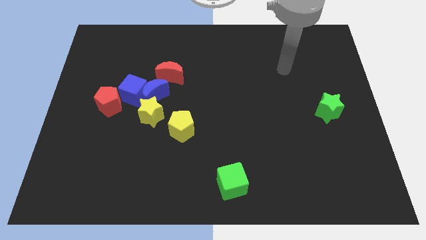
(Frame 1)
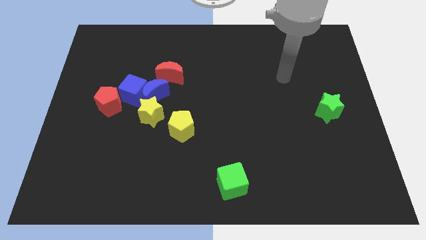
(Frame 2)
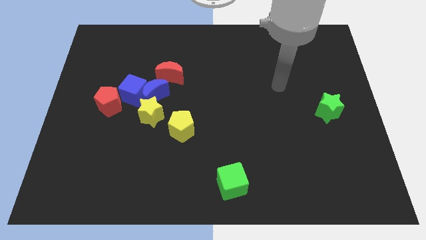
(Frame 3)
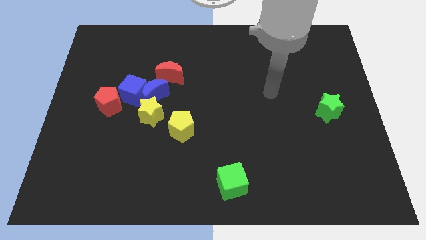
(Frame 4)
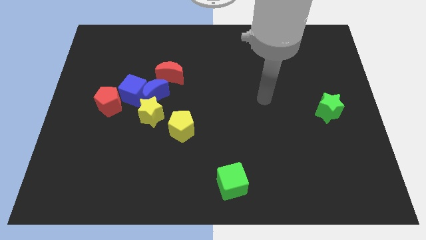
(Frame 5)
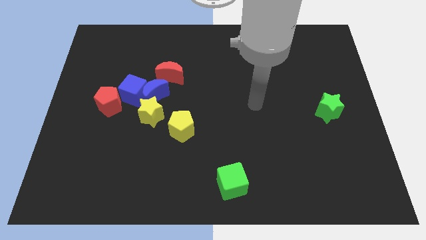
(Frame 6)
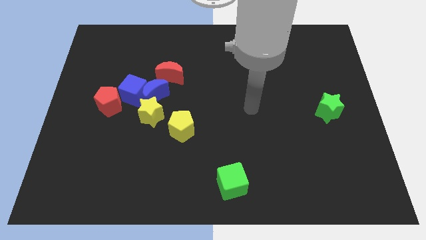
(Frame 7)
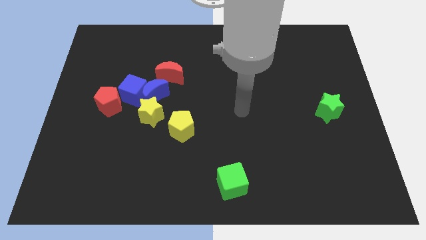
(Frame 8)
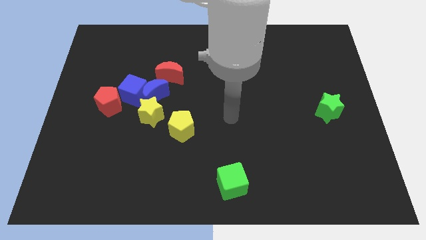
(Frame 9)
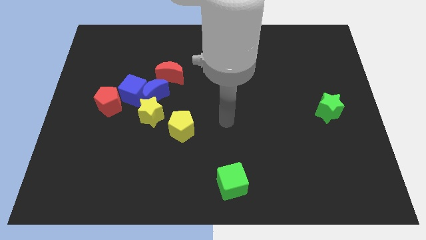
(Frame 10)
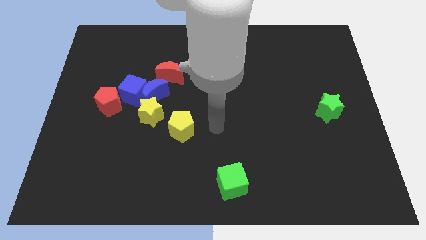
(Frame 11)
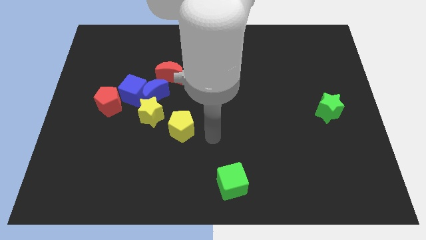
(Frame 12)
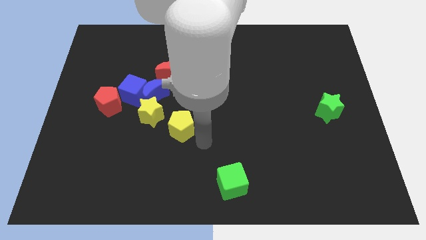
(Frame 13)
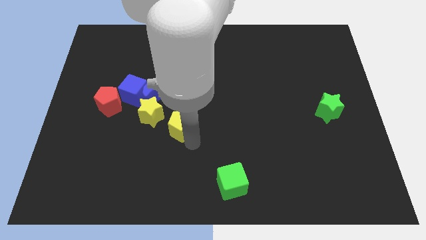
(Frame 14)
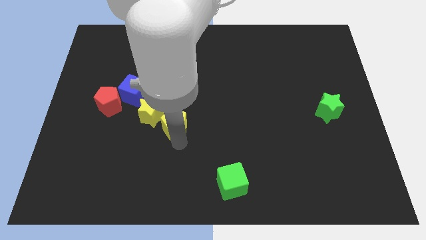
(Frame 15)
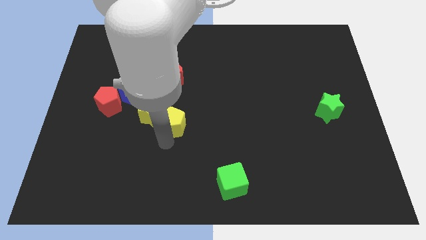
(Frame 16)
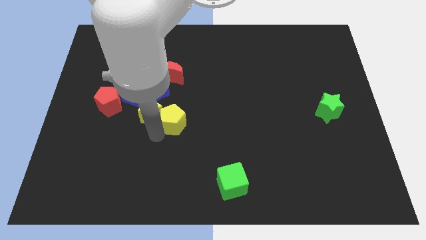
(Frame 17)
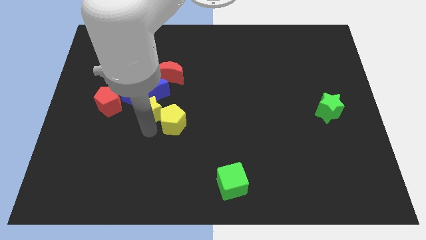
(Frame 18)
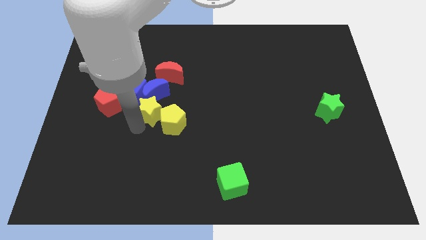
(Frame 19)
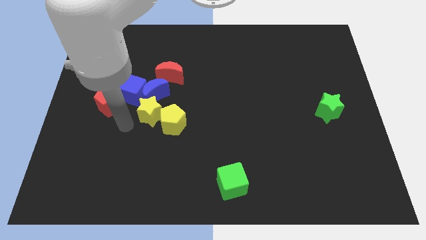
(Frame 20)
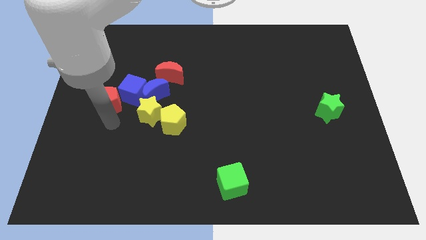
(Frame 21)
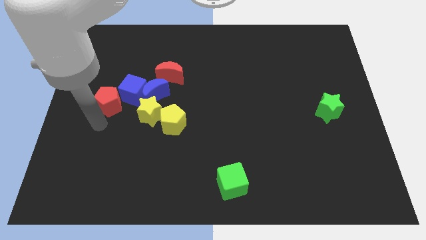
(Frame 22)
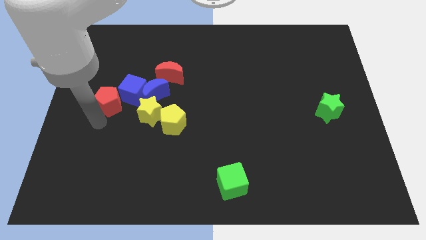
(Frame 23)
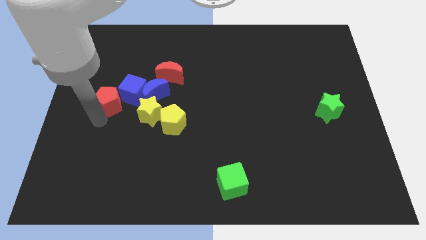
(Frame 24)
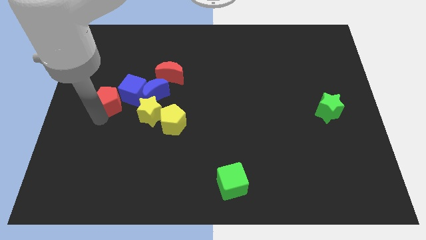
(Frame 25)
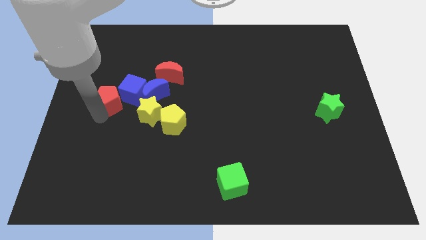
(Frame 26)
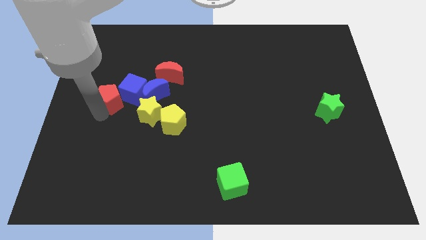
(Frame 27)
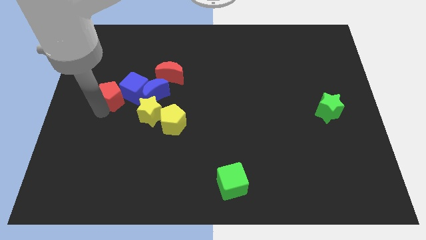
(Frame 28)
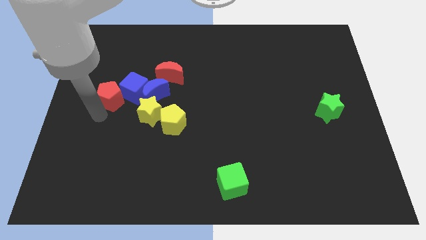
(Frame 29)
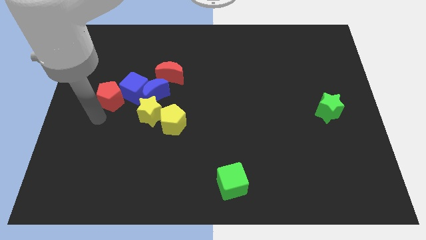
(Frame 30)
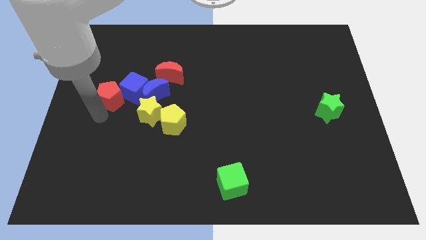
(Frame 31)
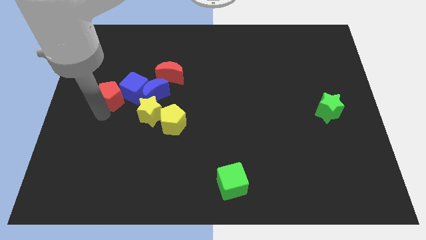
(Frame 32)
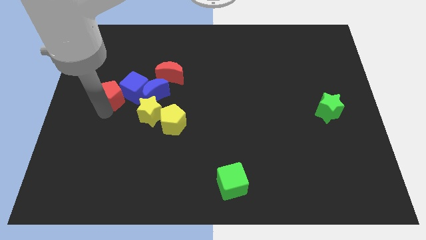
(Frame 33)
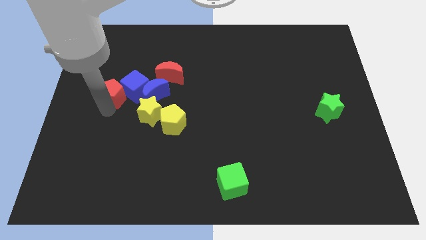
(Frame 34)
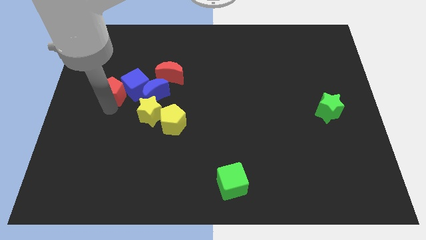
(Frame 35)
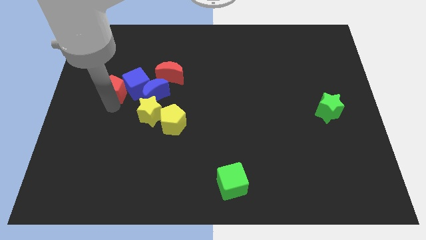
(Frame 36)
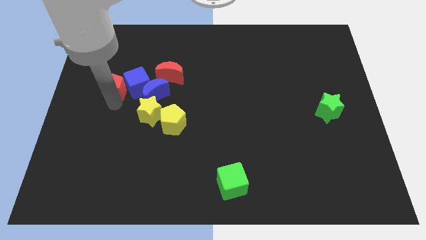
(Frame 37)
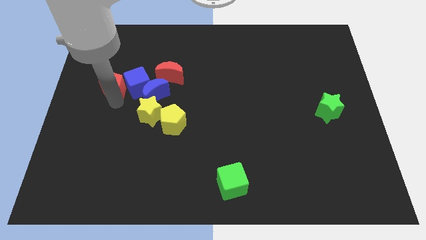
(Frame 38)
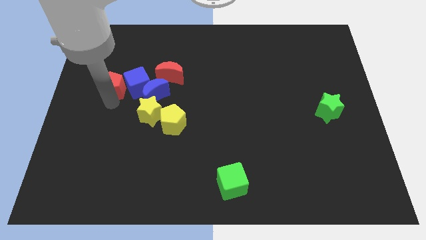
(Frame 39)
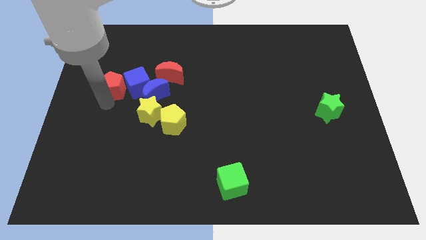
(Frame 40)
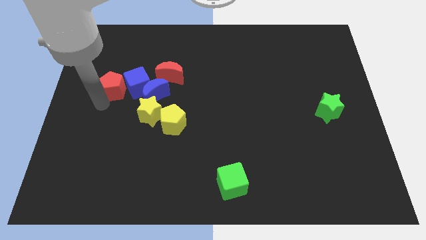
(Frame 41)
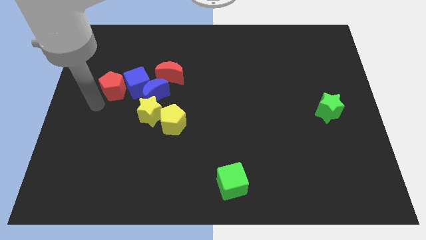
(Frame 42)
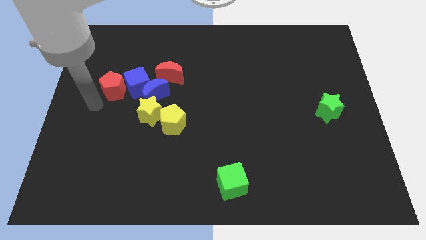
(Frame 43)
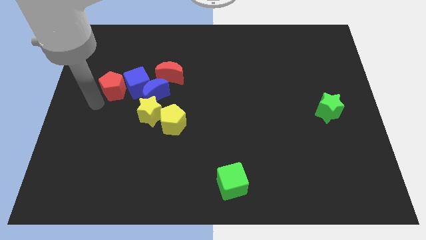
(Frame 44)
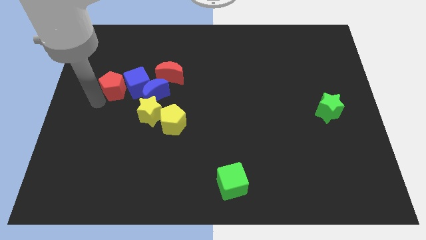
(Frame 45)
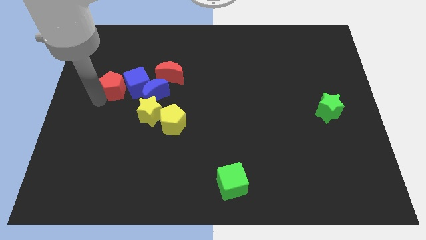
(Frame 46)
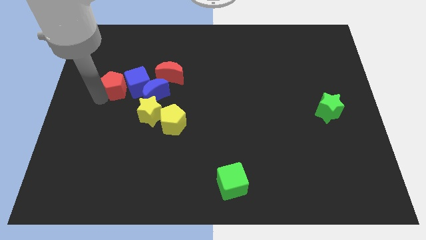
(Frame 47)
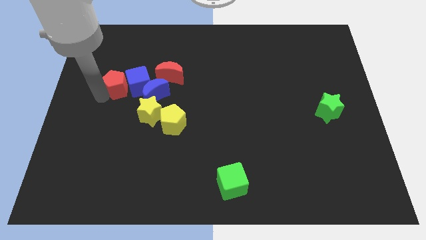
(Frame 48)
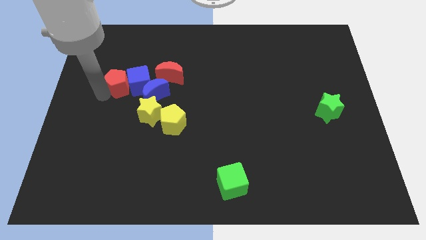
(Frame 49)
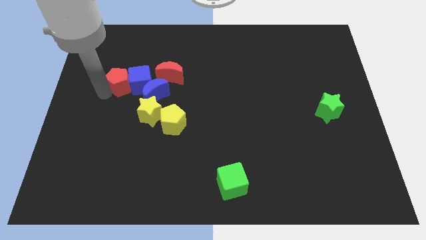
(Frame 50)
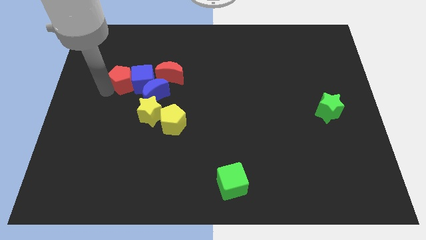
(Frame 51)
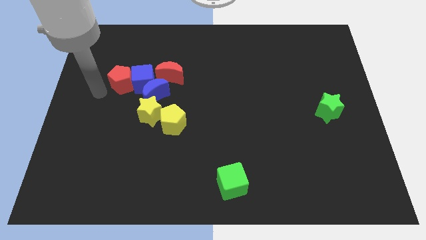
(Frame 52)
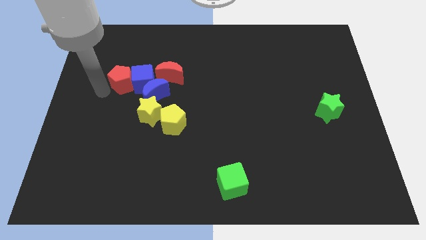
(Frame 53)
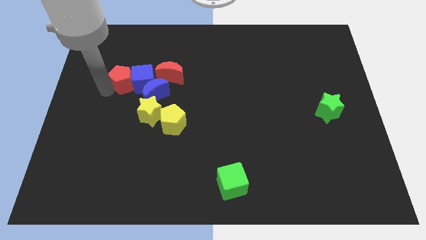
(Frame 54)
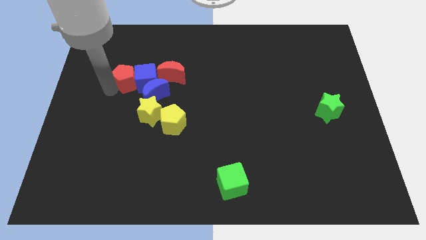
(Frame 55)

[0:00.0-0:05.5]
push the red pentagon a little bit up and then right

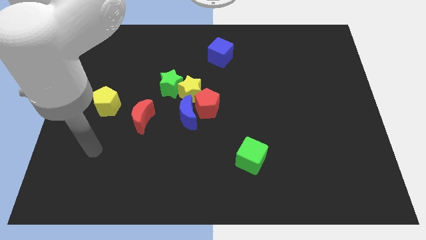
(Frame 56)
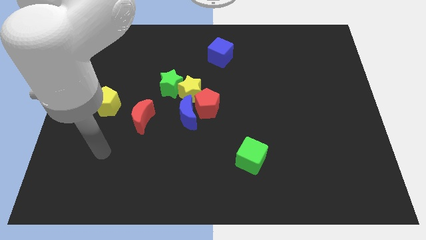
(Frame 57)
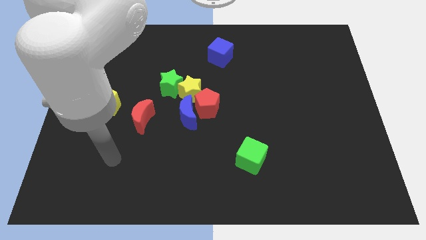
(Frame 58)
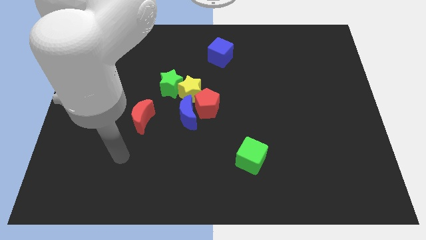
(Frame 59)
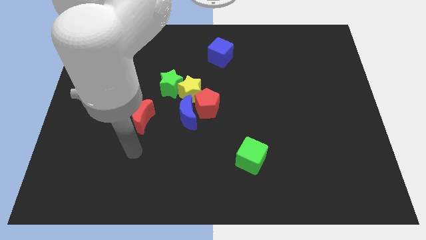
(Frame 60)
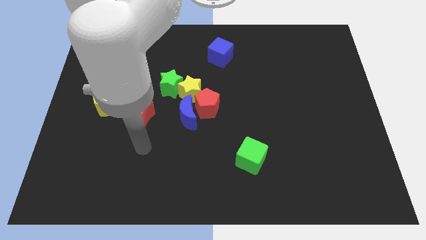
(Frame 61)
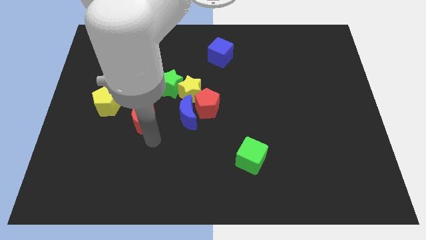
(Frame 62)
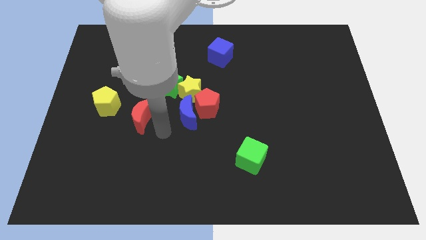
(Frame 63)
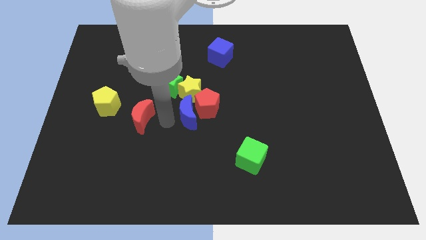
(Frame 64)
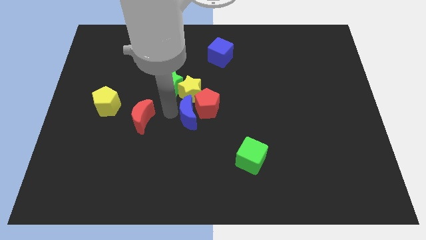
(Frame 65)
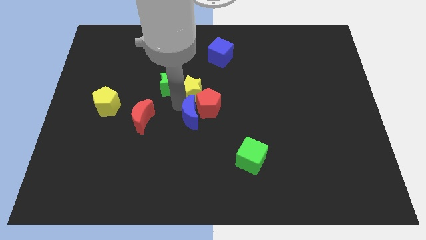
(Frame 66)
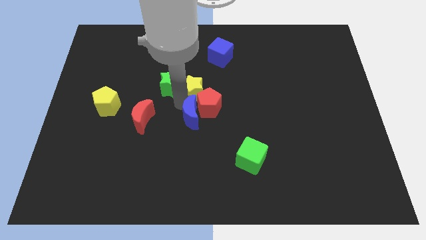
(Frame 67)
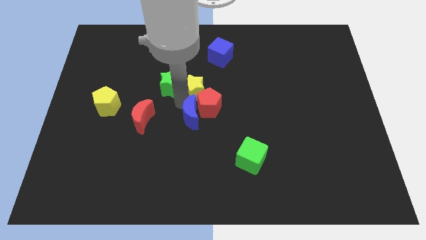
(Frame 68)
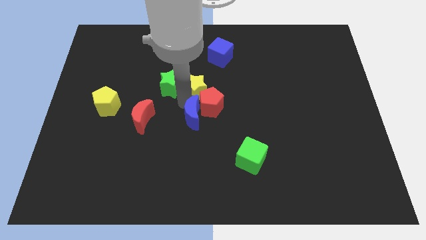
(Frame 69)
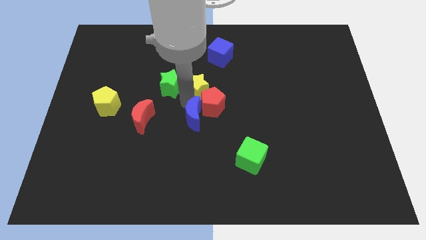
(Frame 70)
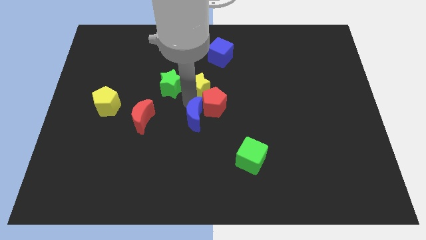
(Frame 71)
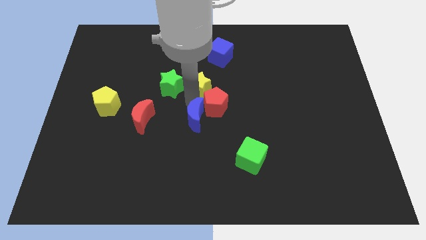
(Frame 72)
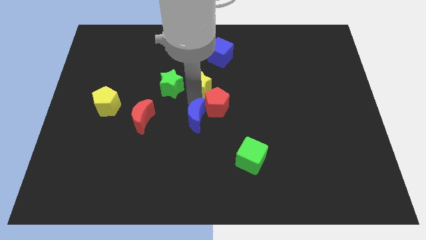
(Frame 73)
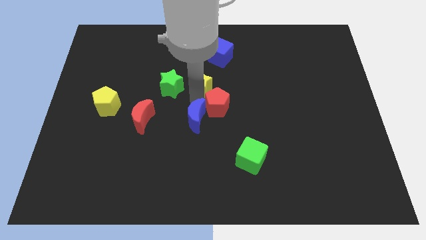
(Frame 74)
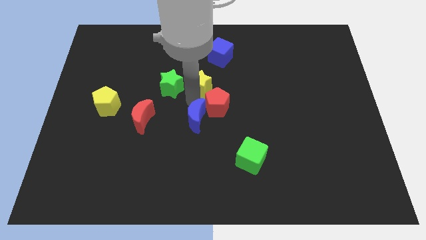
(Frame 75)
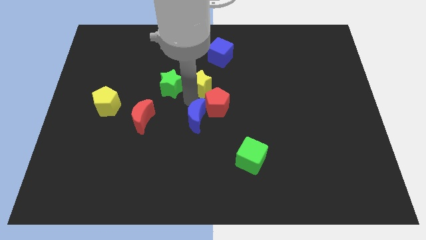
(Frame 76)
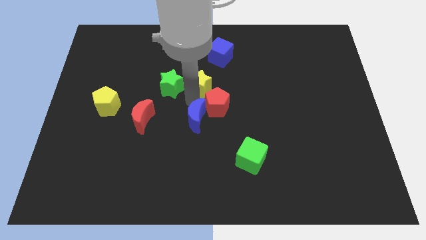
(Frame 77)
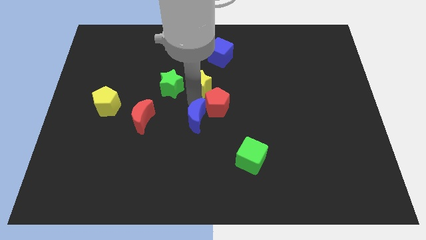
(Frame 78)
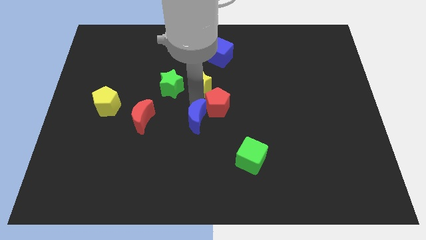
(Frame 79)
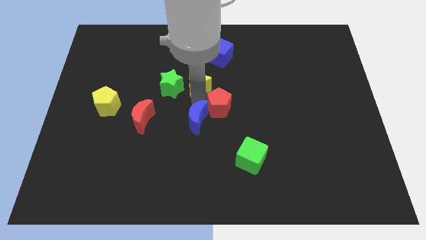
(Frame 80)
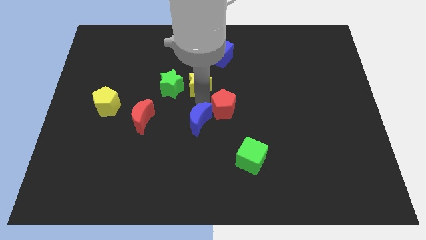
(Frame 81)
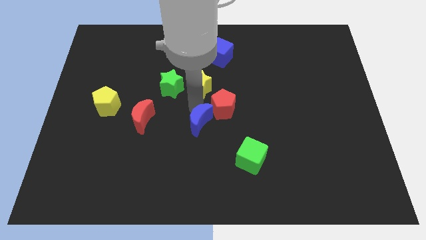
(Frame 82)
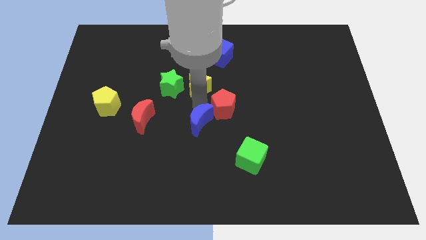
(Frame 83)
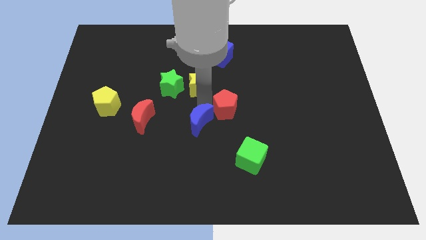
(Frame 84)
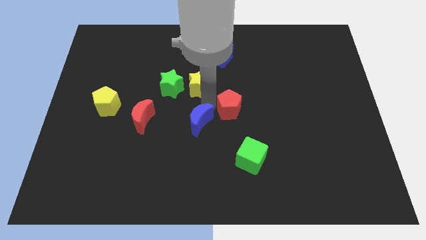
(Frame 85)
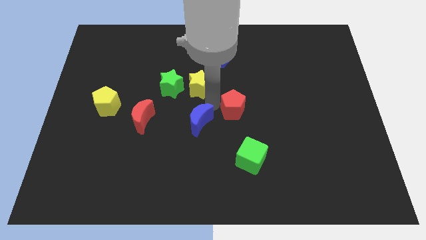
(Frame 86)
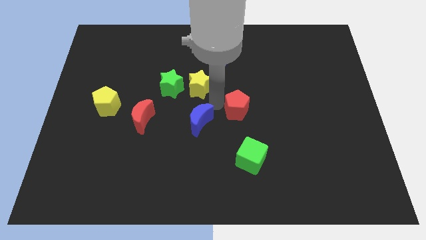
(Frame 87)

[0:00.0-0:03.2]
slightly slide the red pentagon right
